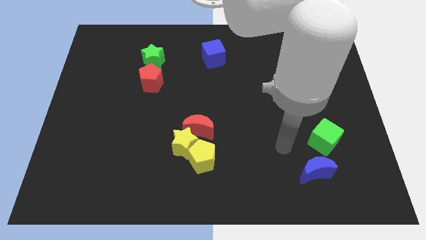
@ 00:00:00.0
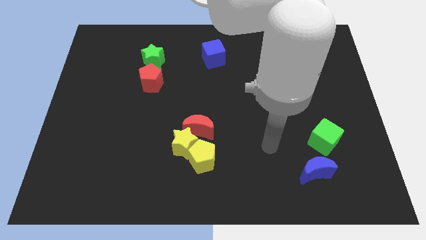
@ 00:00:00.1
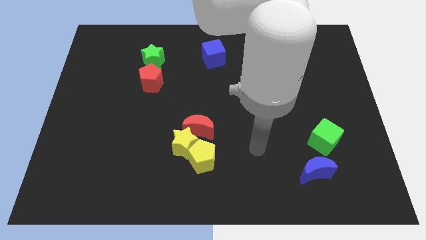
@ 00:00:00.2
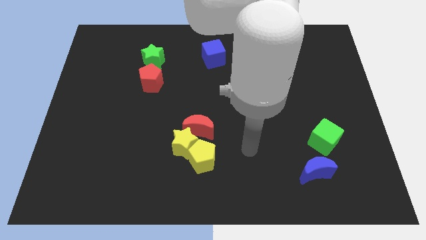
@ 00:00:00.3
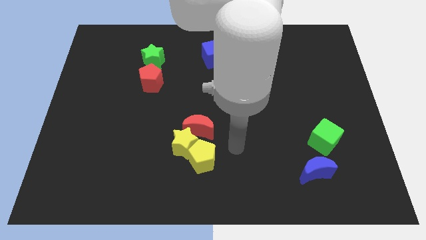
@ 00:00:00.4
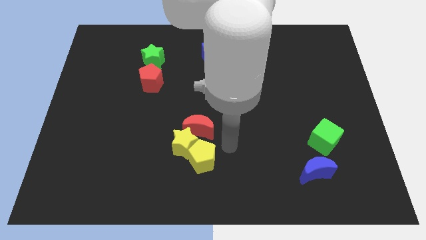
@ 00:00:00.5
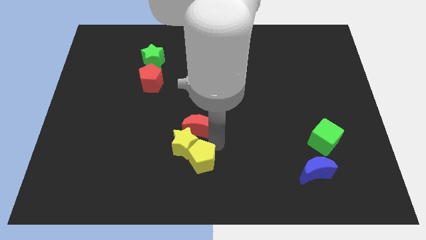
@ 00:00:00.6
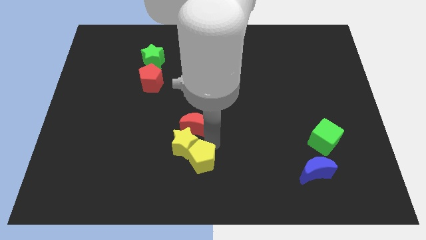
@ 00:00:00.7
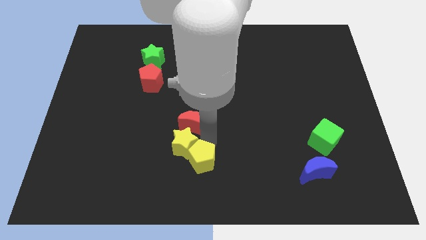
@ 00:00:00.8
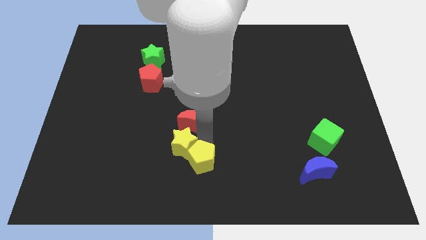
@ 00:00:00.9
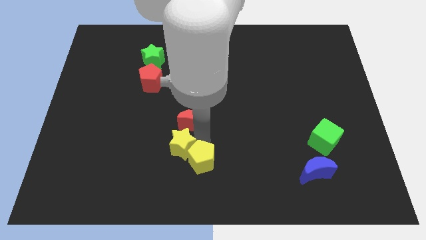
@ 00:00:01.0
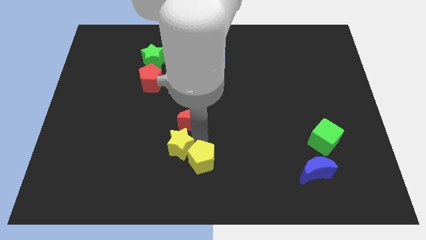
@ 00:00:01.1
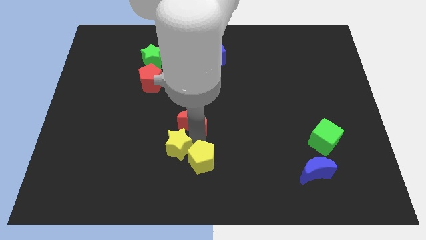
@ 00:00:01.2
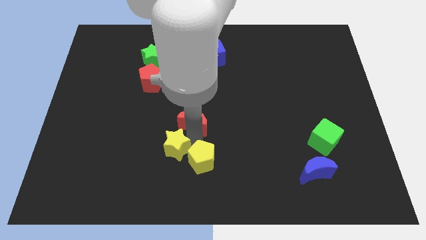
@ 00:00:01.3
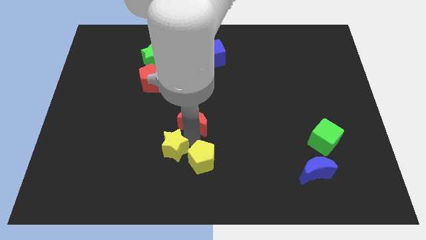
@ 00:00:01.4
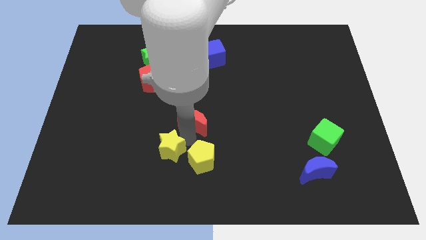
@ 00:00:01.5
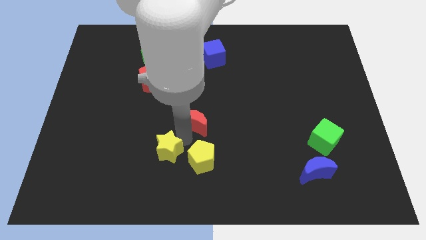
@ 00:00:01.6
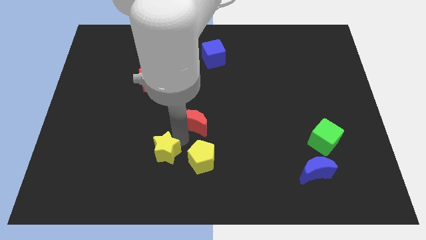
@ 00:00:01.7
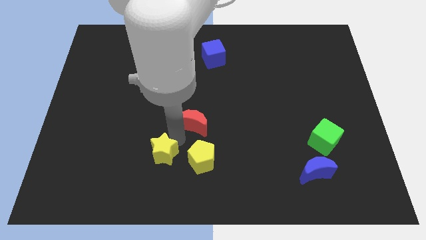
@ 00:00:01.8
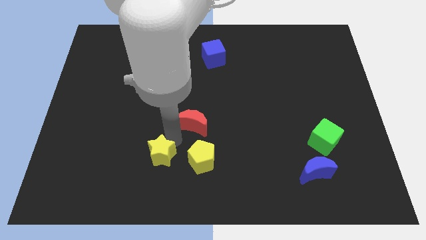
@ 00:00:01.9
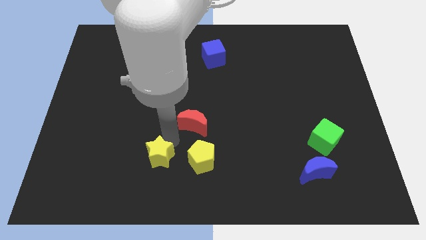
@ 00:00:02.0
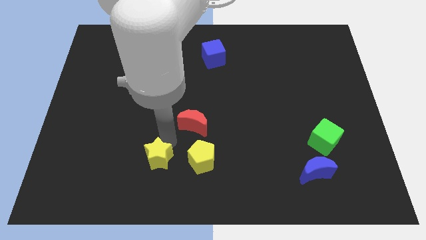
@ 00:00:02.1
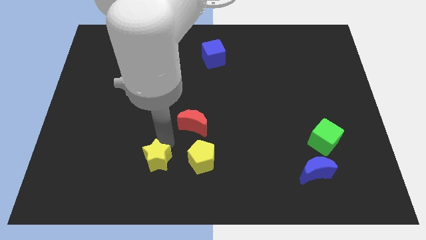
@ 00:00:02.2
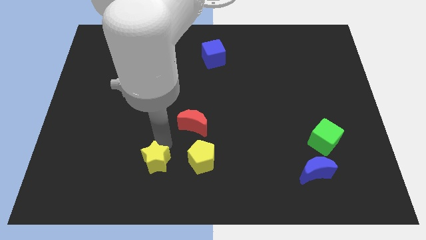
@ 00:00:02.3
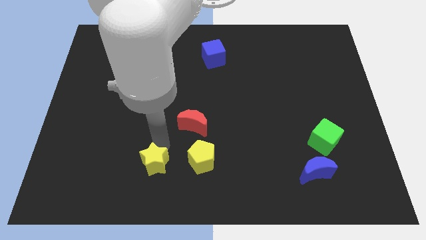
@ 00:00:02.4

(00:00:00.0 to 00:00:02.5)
separate the yellow star from the yellow pentagon and red moon

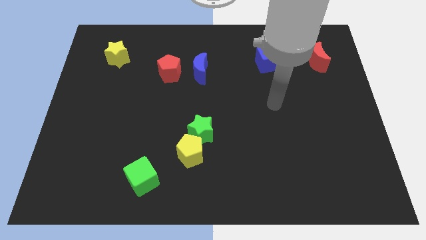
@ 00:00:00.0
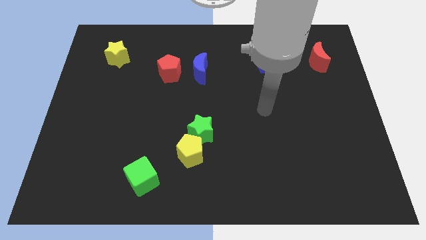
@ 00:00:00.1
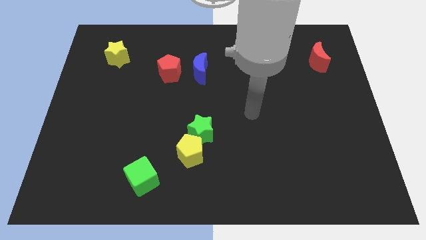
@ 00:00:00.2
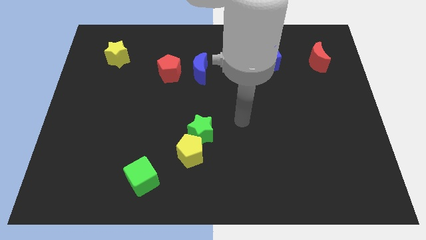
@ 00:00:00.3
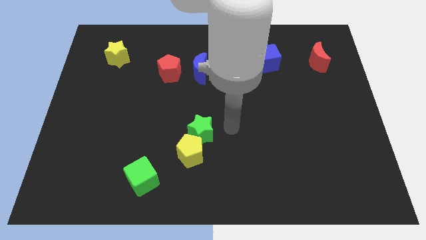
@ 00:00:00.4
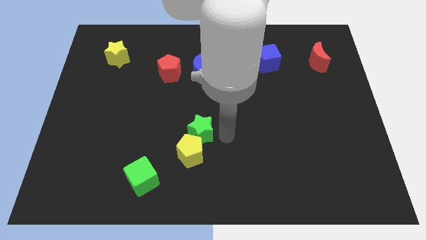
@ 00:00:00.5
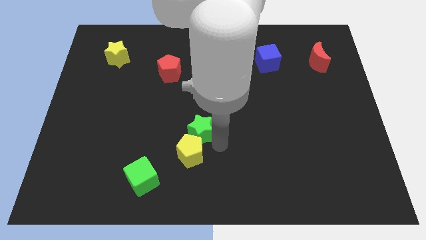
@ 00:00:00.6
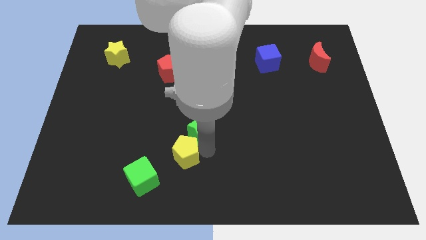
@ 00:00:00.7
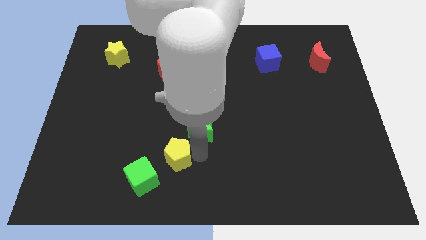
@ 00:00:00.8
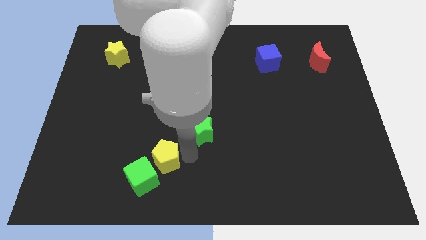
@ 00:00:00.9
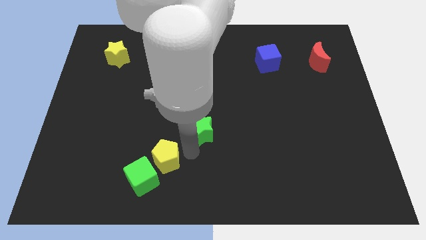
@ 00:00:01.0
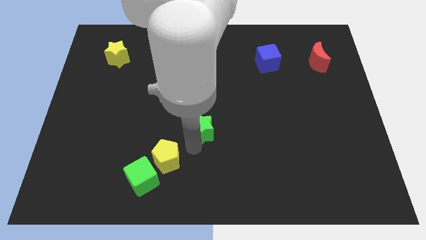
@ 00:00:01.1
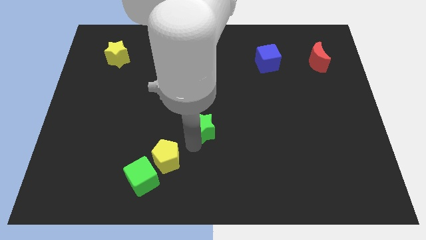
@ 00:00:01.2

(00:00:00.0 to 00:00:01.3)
pull the green star apart from the yellow pentagon

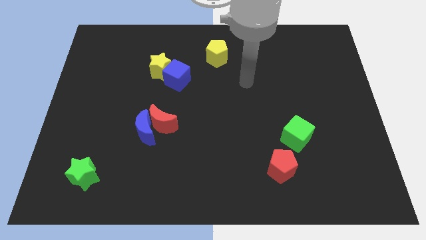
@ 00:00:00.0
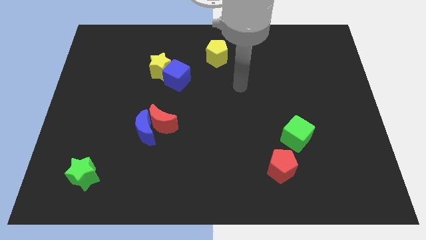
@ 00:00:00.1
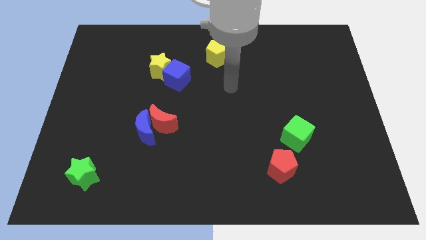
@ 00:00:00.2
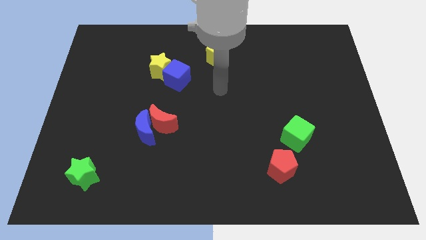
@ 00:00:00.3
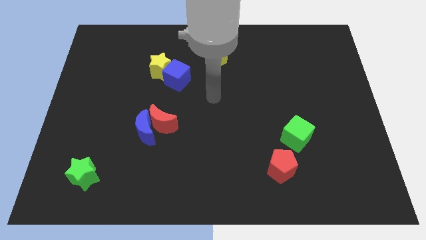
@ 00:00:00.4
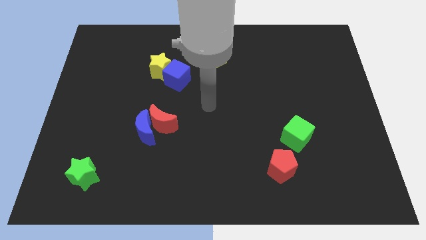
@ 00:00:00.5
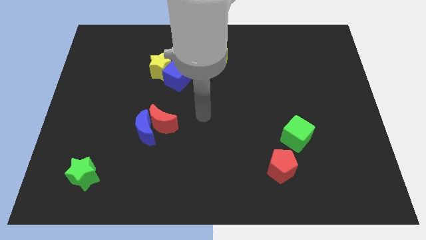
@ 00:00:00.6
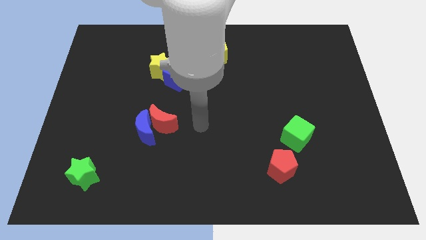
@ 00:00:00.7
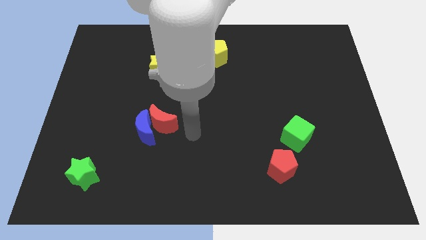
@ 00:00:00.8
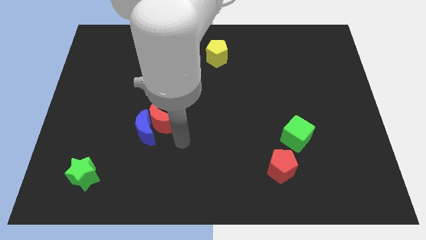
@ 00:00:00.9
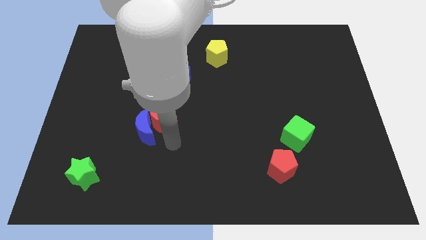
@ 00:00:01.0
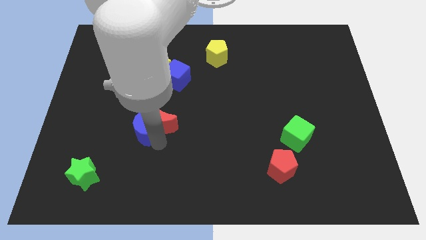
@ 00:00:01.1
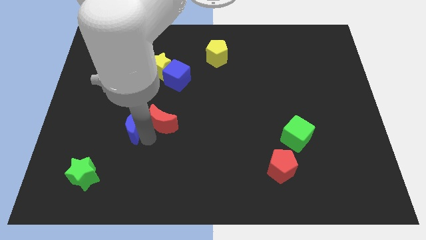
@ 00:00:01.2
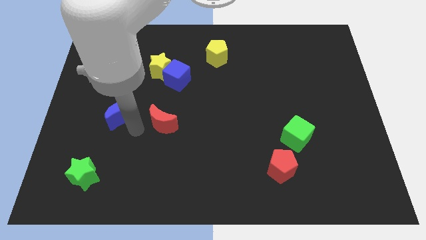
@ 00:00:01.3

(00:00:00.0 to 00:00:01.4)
pull the red moon apart from the blue moon

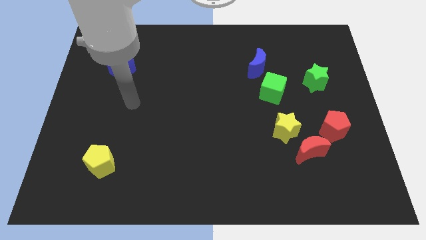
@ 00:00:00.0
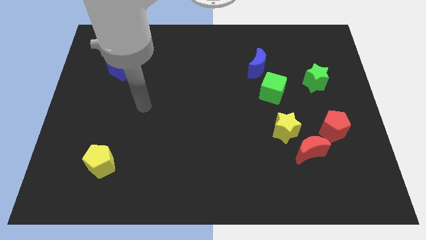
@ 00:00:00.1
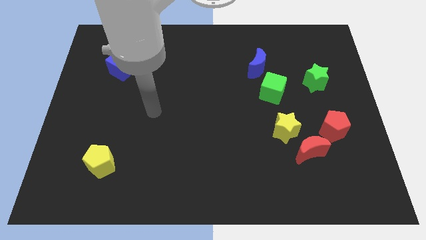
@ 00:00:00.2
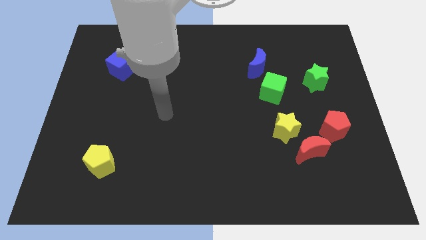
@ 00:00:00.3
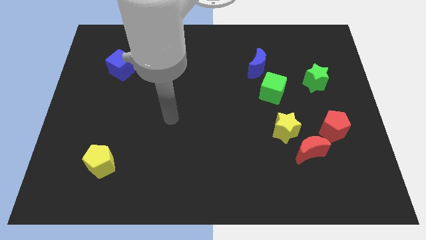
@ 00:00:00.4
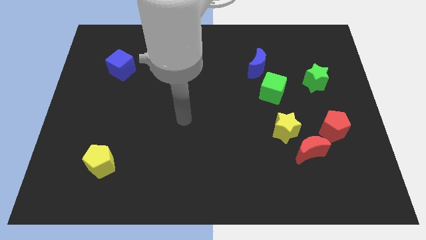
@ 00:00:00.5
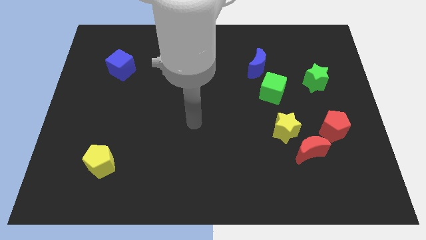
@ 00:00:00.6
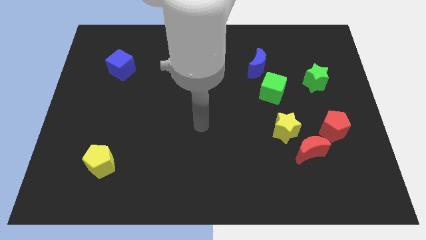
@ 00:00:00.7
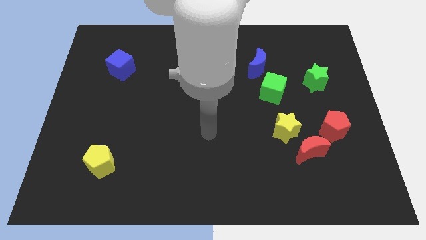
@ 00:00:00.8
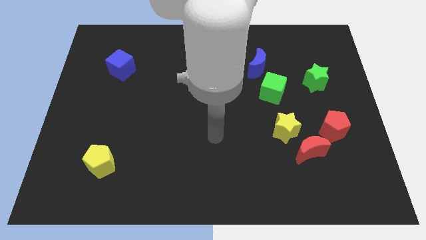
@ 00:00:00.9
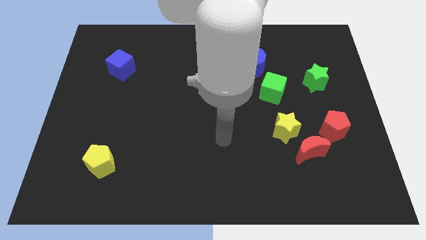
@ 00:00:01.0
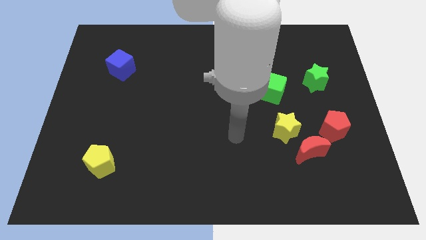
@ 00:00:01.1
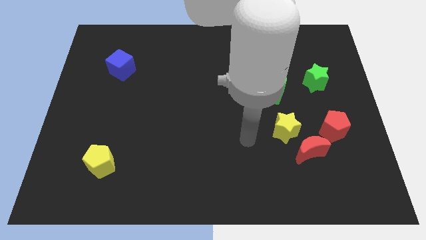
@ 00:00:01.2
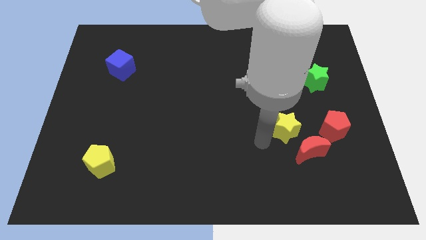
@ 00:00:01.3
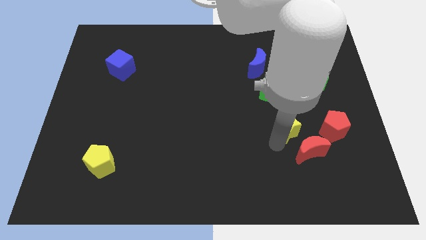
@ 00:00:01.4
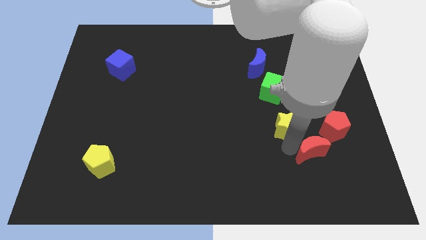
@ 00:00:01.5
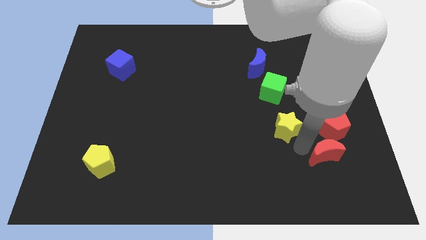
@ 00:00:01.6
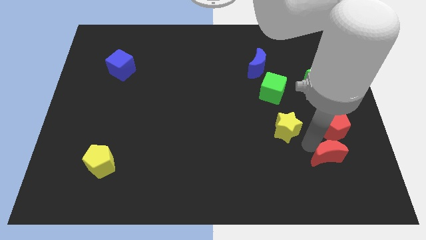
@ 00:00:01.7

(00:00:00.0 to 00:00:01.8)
pull the yellow star apart from the red moon

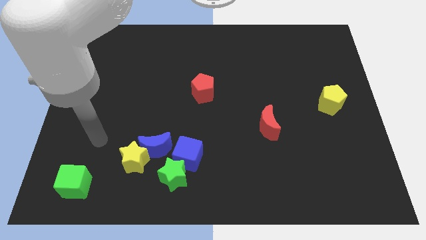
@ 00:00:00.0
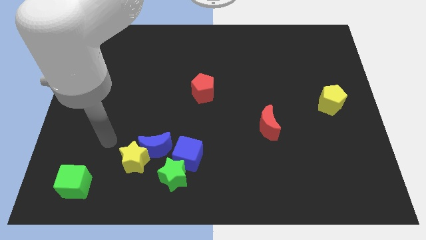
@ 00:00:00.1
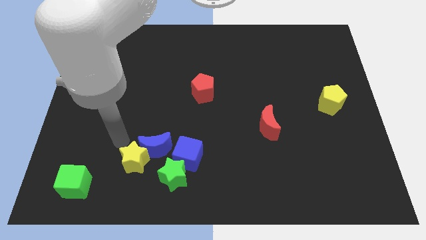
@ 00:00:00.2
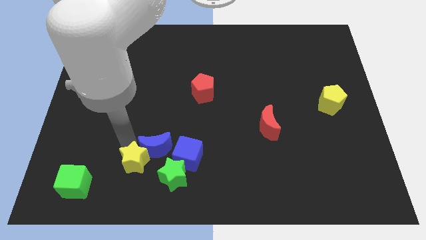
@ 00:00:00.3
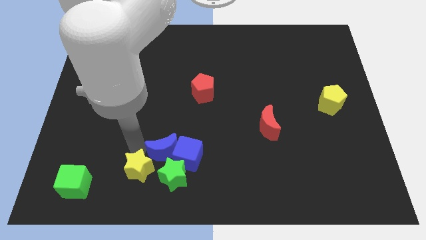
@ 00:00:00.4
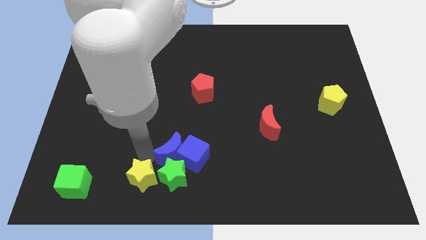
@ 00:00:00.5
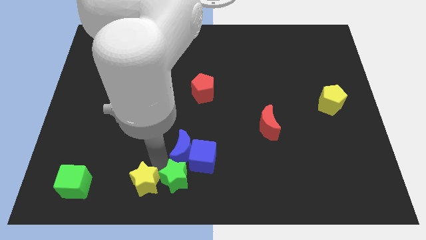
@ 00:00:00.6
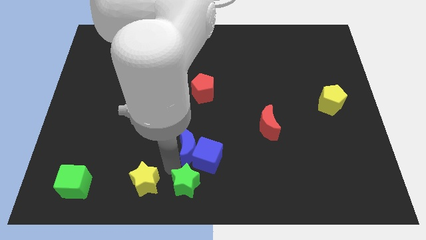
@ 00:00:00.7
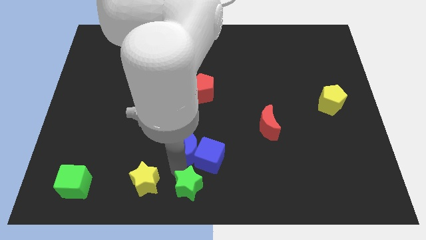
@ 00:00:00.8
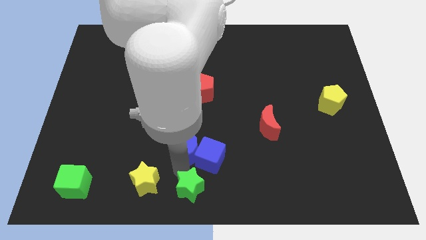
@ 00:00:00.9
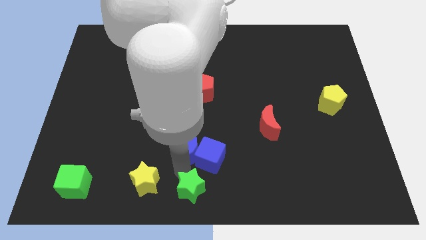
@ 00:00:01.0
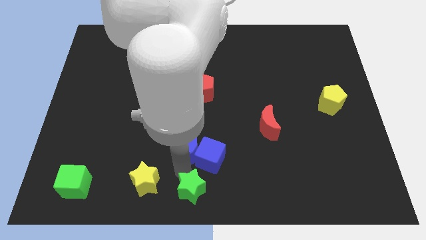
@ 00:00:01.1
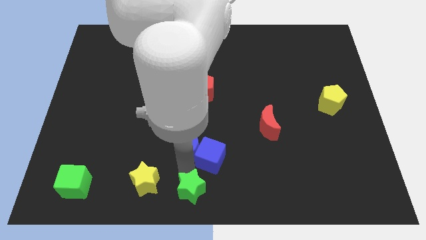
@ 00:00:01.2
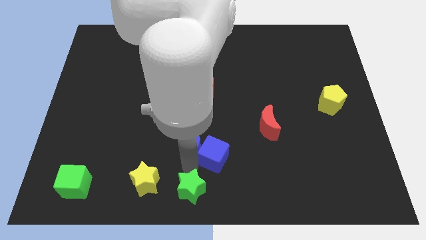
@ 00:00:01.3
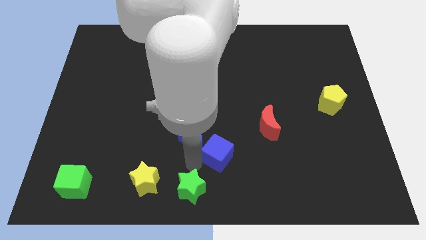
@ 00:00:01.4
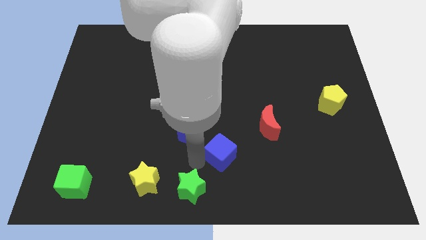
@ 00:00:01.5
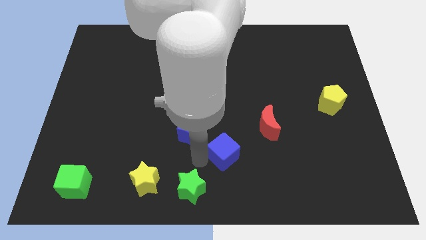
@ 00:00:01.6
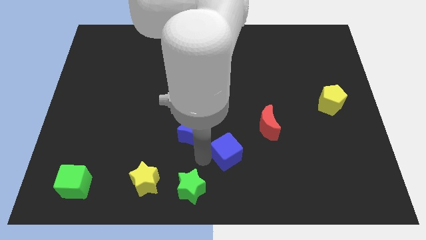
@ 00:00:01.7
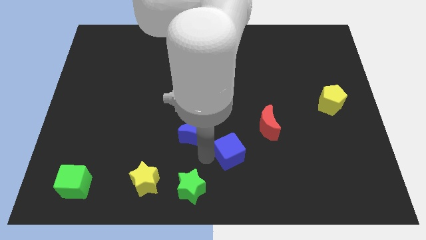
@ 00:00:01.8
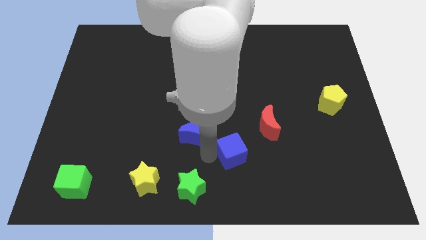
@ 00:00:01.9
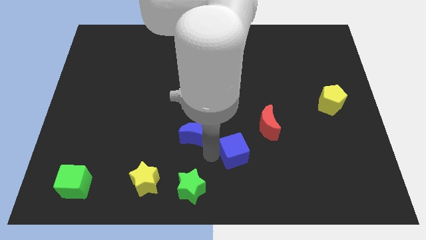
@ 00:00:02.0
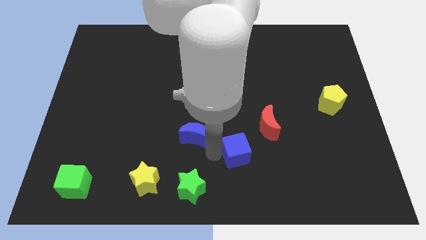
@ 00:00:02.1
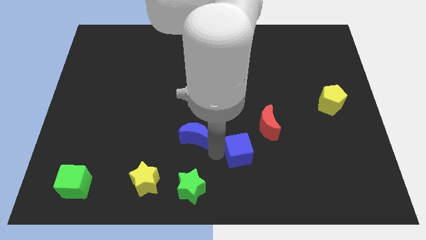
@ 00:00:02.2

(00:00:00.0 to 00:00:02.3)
pull the blue cube apart from the green star and blue moon
